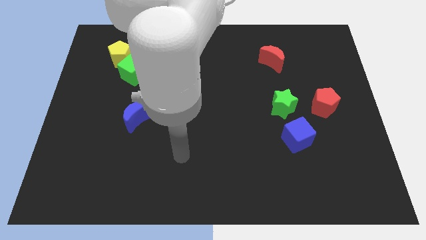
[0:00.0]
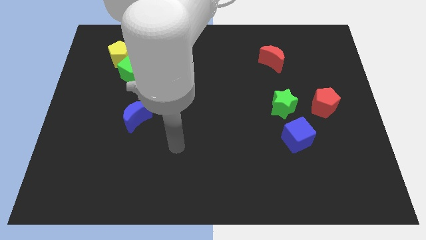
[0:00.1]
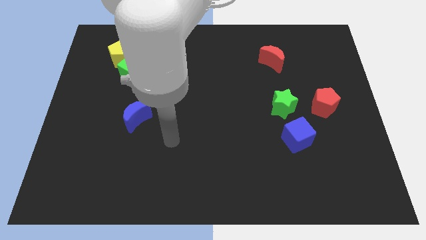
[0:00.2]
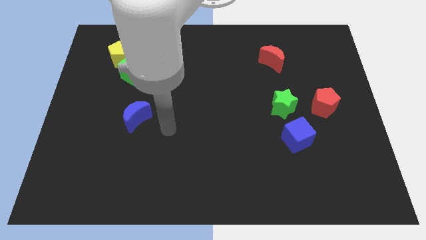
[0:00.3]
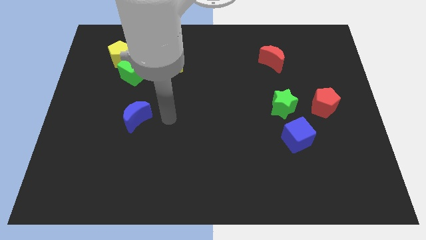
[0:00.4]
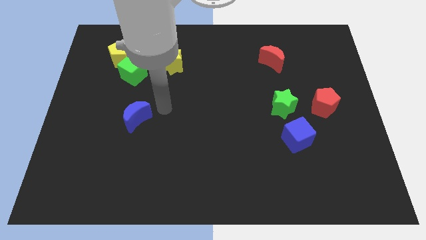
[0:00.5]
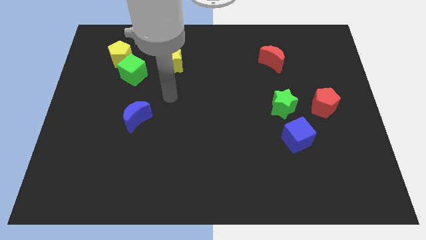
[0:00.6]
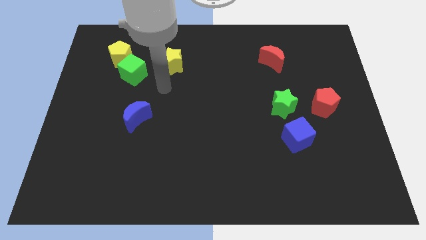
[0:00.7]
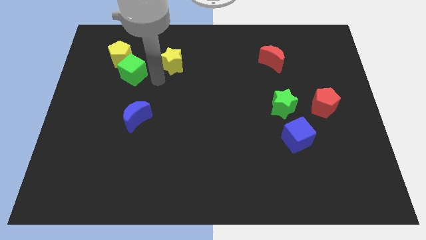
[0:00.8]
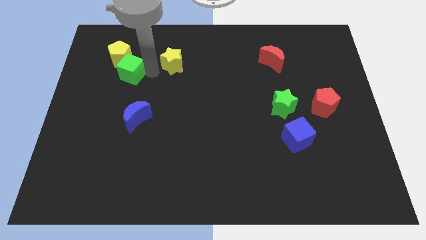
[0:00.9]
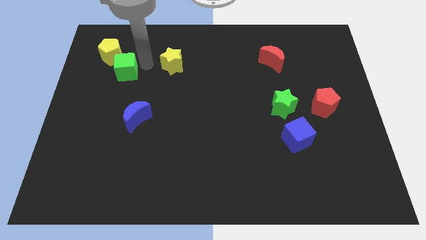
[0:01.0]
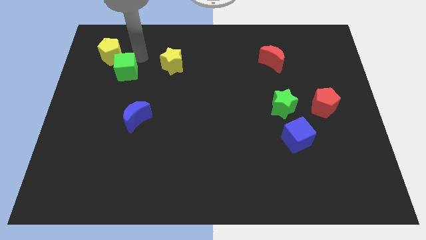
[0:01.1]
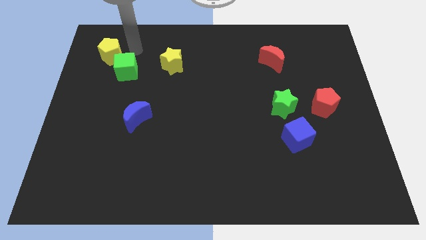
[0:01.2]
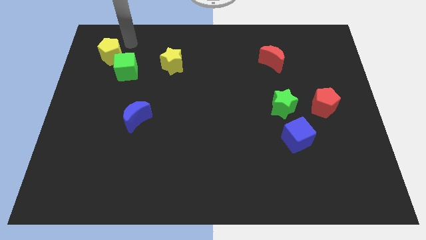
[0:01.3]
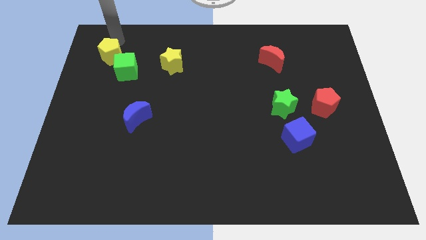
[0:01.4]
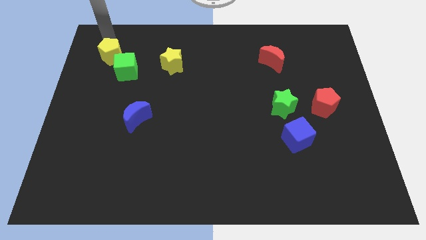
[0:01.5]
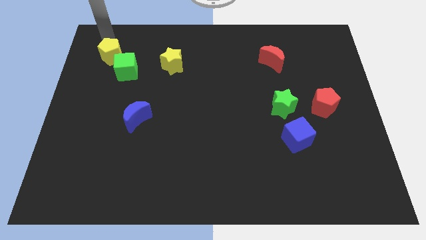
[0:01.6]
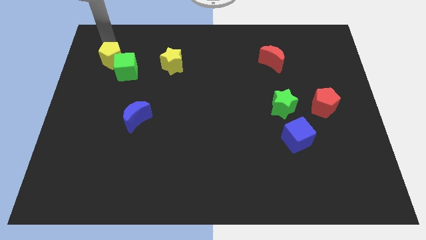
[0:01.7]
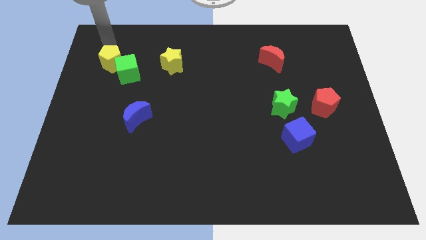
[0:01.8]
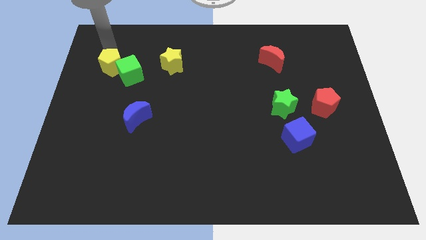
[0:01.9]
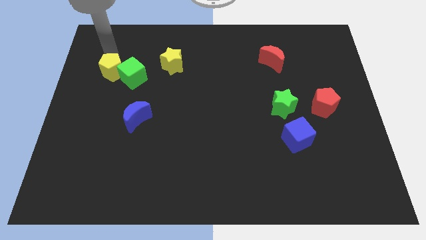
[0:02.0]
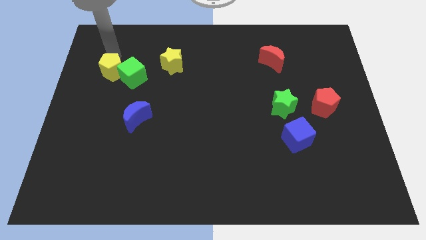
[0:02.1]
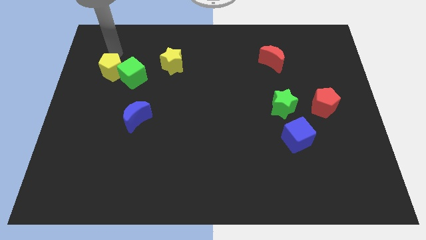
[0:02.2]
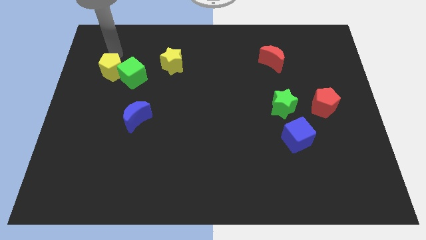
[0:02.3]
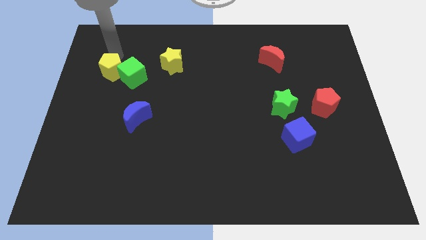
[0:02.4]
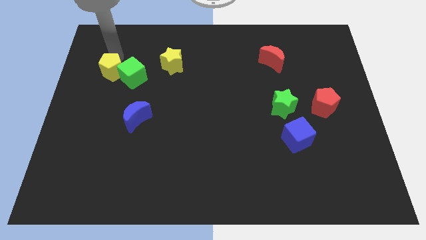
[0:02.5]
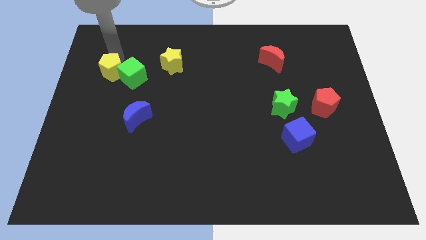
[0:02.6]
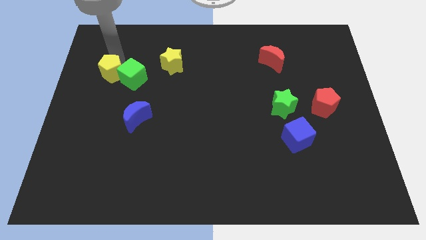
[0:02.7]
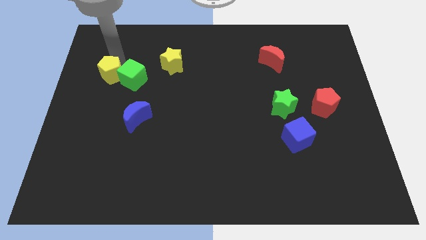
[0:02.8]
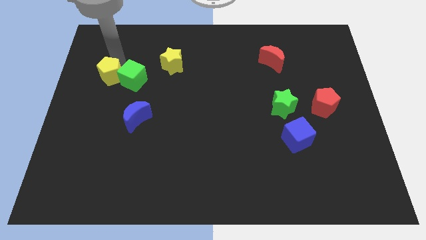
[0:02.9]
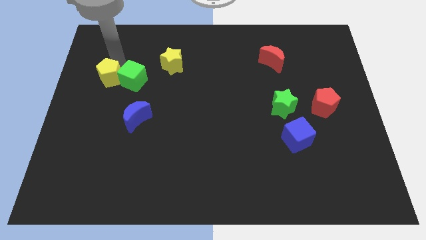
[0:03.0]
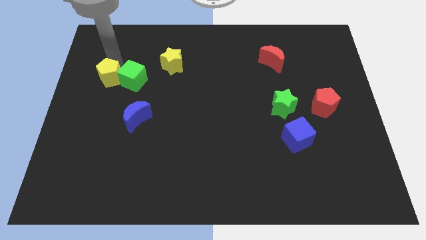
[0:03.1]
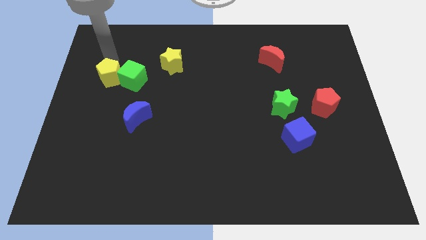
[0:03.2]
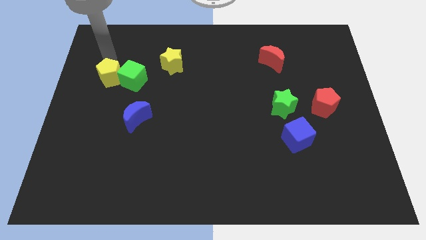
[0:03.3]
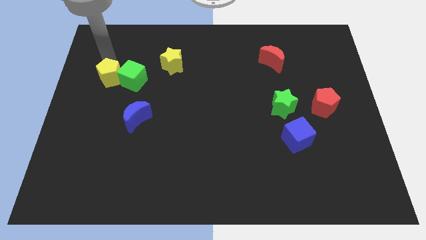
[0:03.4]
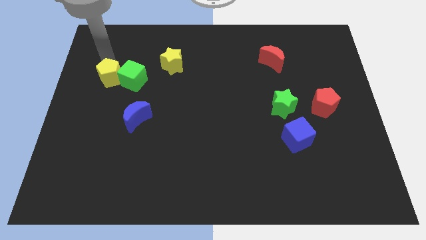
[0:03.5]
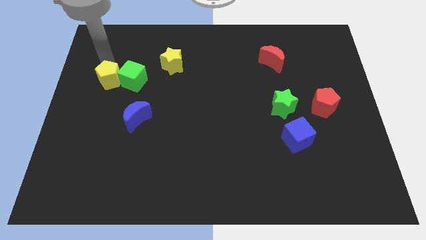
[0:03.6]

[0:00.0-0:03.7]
move the yellow pentagon downwards slightly

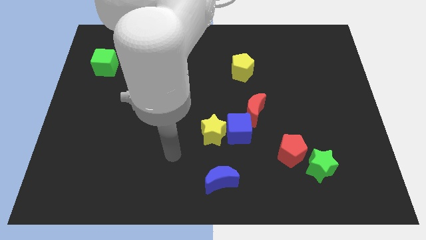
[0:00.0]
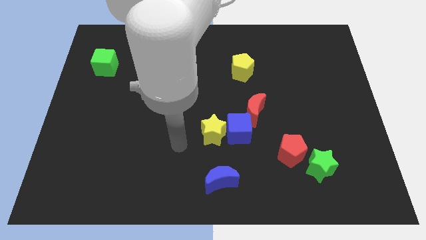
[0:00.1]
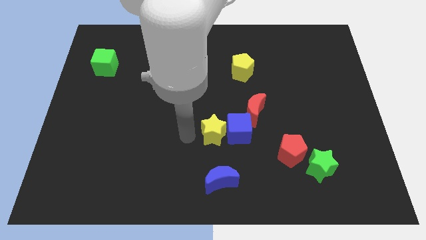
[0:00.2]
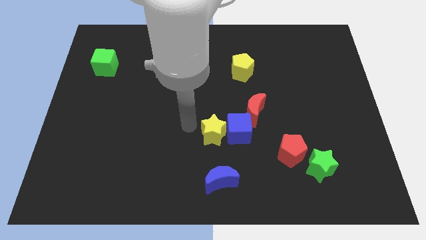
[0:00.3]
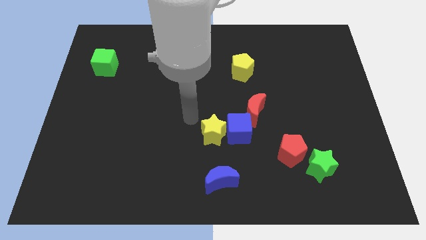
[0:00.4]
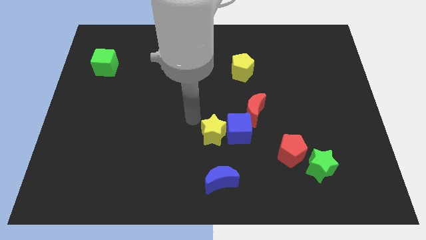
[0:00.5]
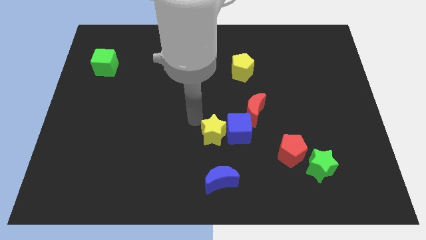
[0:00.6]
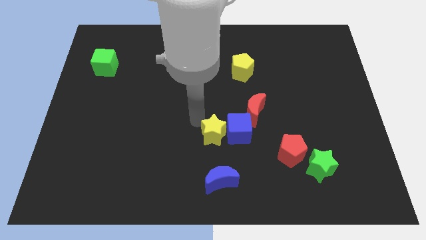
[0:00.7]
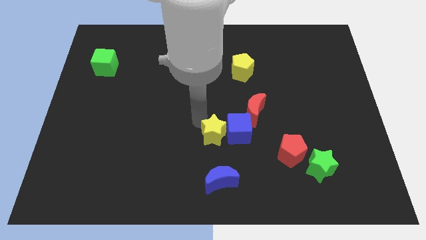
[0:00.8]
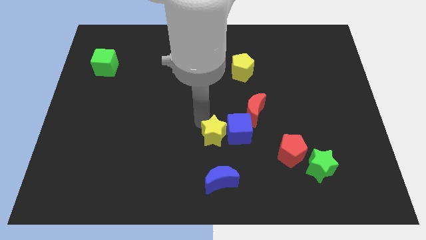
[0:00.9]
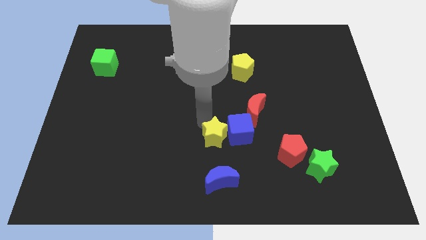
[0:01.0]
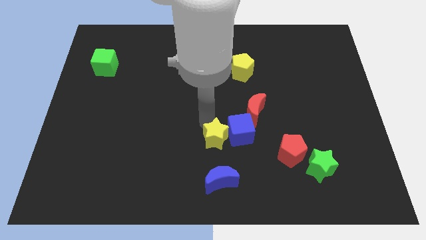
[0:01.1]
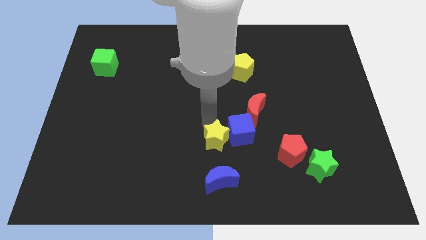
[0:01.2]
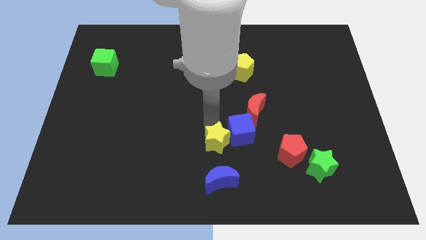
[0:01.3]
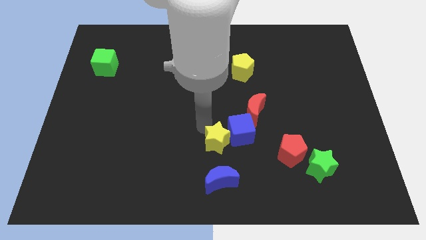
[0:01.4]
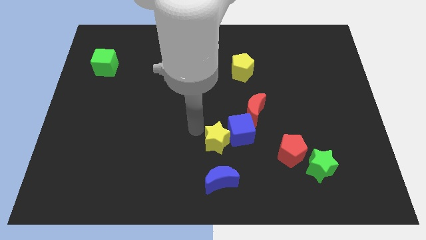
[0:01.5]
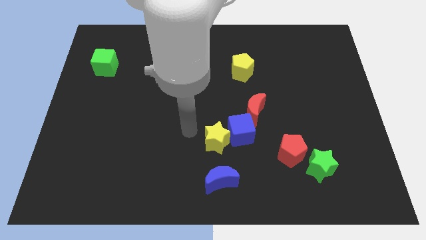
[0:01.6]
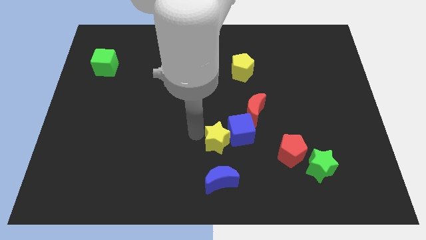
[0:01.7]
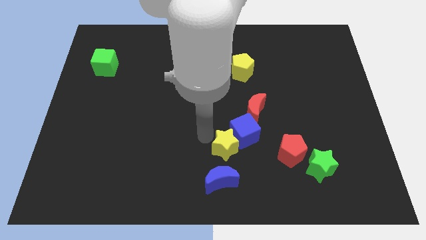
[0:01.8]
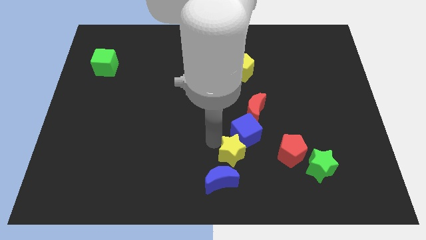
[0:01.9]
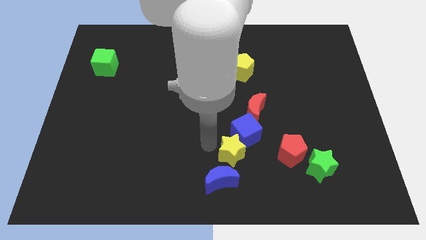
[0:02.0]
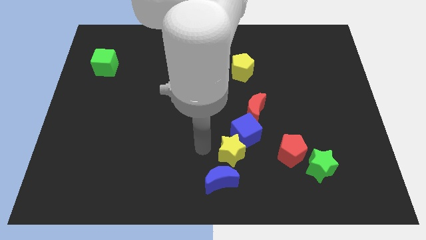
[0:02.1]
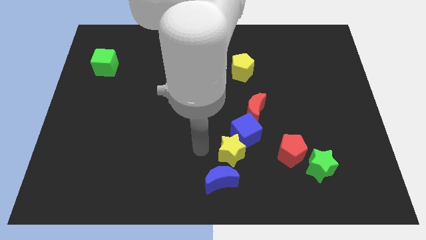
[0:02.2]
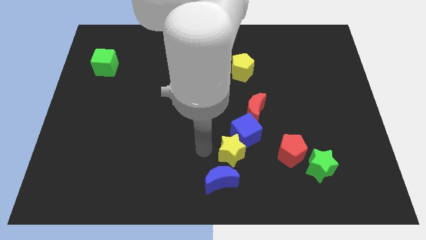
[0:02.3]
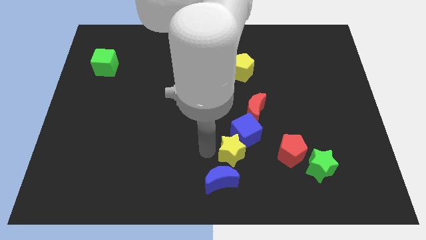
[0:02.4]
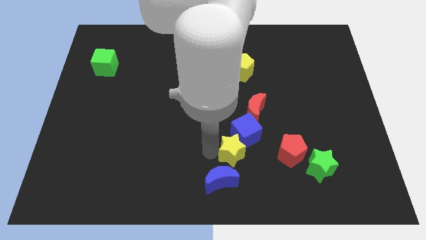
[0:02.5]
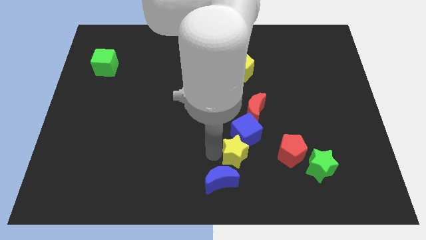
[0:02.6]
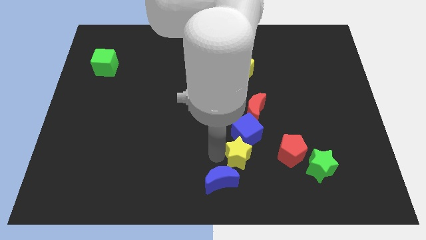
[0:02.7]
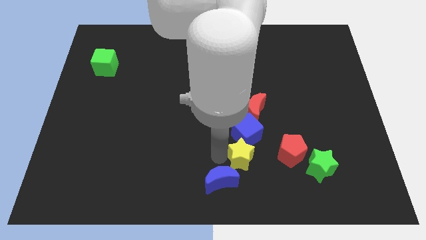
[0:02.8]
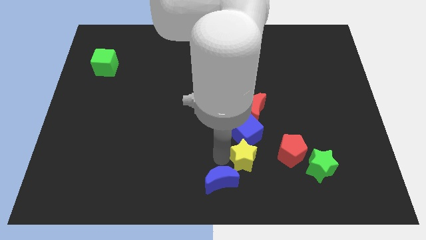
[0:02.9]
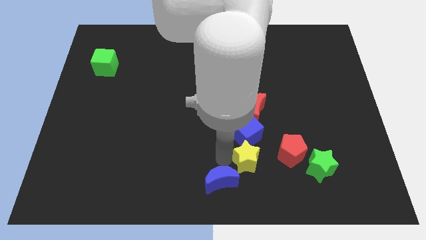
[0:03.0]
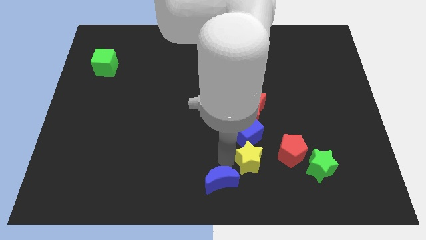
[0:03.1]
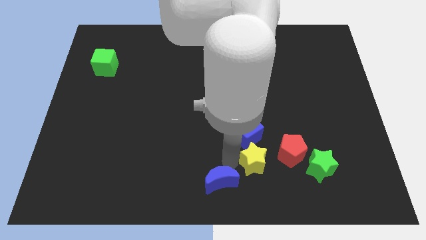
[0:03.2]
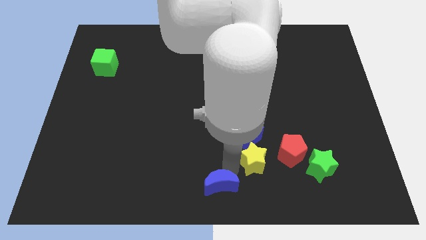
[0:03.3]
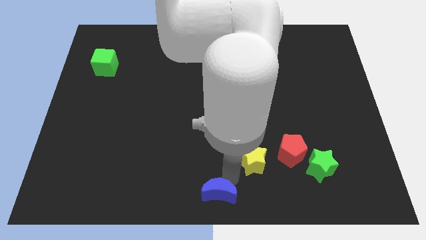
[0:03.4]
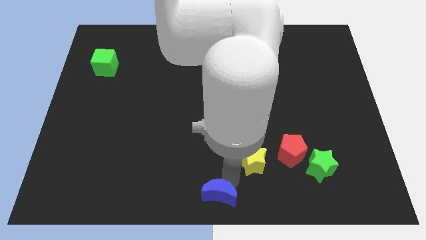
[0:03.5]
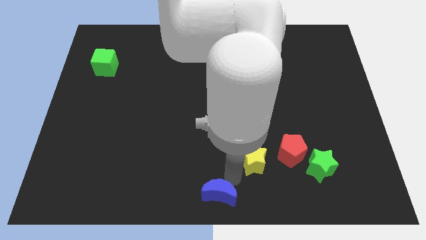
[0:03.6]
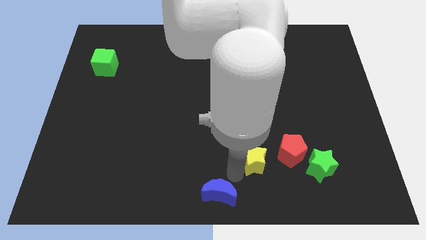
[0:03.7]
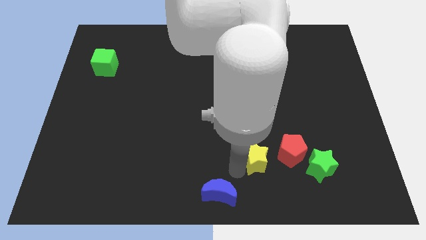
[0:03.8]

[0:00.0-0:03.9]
slightly push the yellow star right
